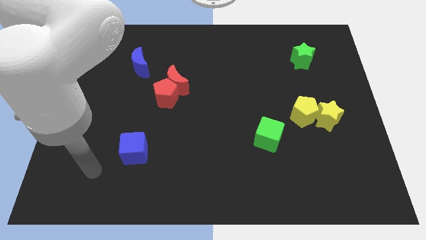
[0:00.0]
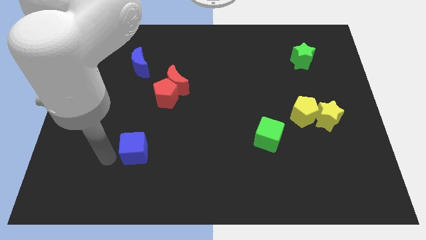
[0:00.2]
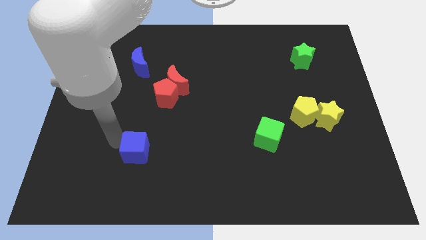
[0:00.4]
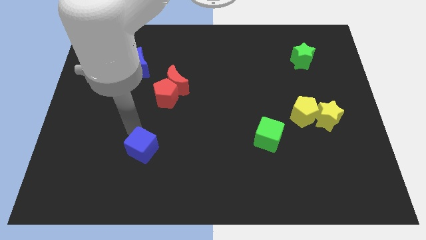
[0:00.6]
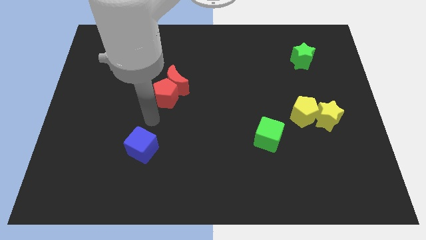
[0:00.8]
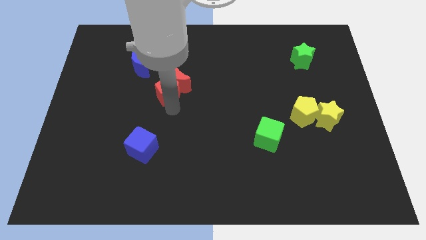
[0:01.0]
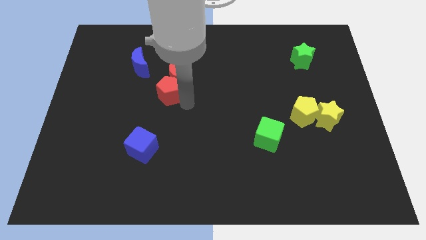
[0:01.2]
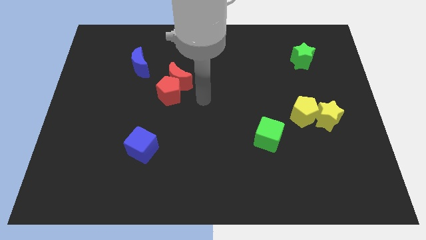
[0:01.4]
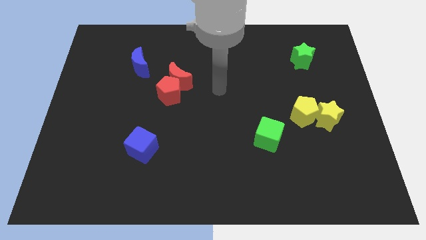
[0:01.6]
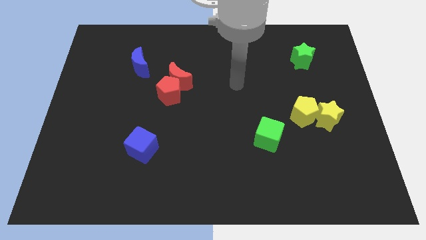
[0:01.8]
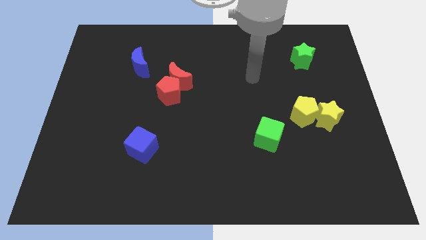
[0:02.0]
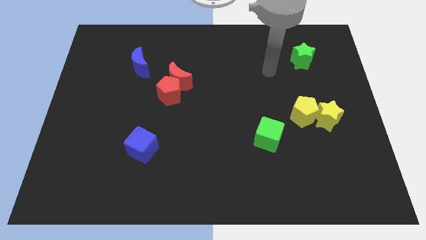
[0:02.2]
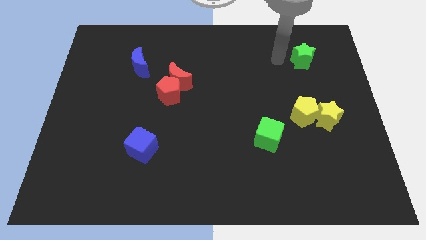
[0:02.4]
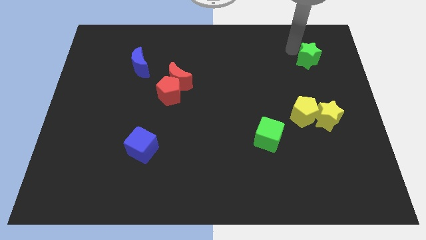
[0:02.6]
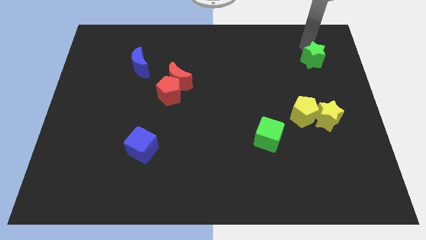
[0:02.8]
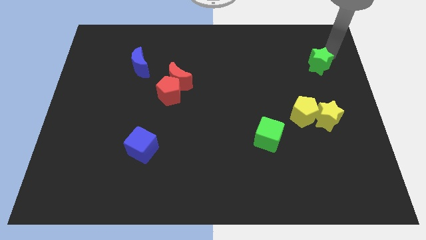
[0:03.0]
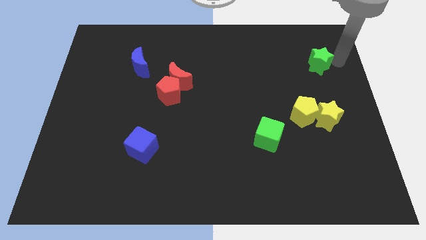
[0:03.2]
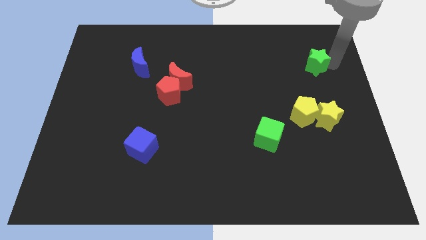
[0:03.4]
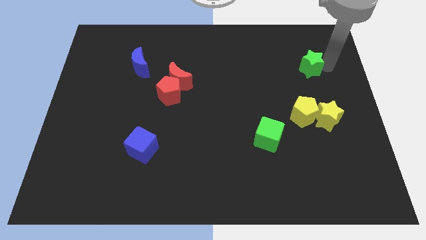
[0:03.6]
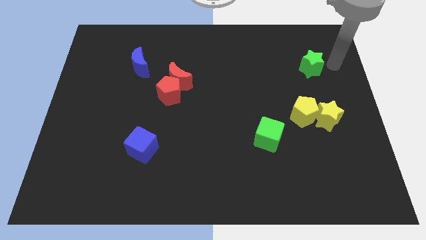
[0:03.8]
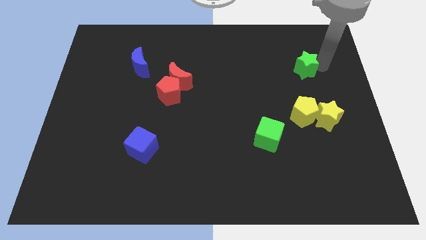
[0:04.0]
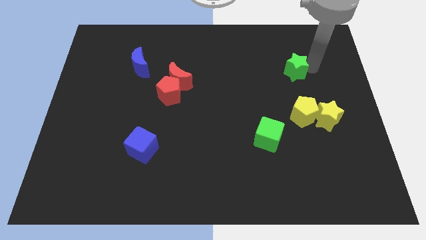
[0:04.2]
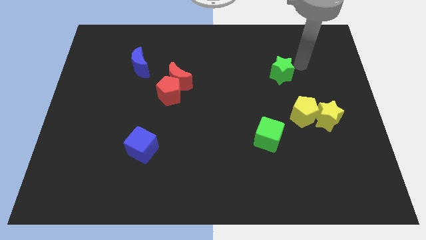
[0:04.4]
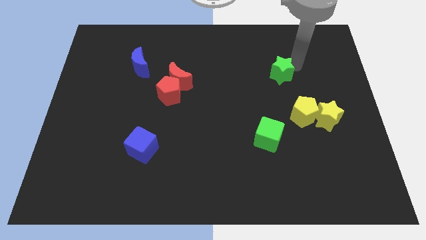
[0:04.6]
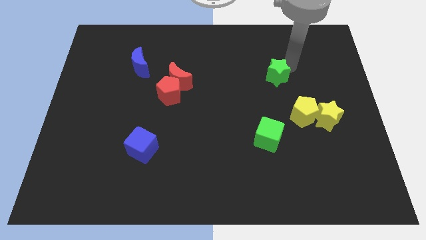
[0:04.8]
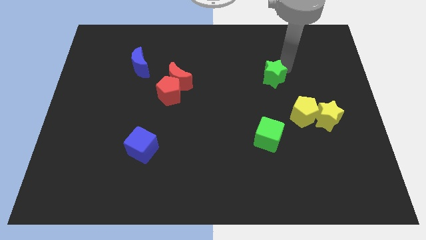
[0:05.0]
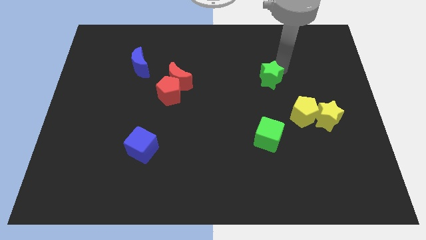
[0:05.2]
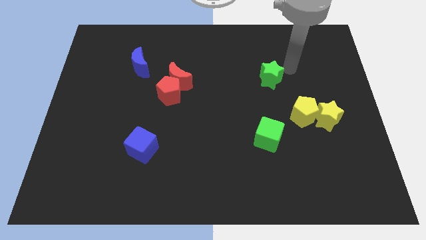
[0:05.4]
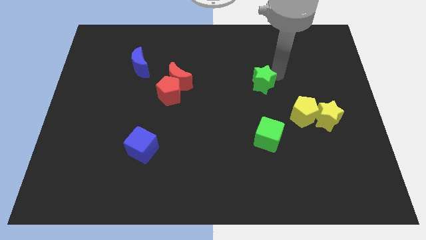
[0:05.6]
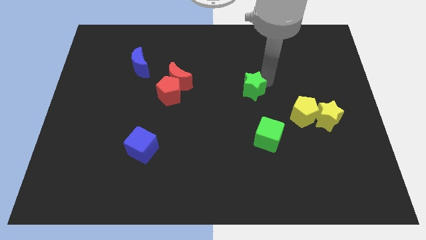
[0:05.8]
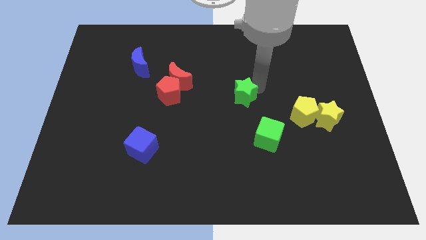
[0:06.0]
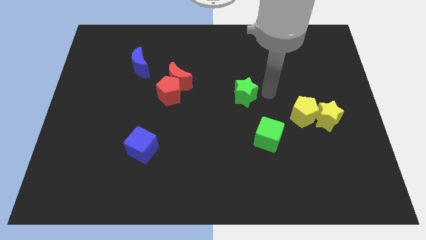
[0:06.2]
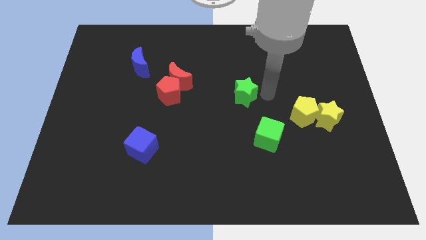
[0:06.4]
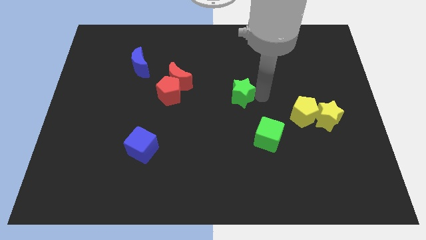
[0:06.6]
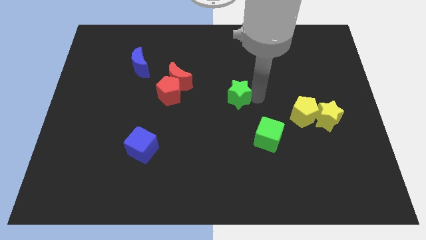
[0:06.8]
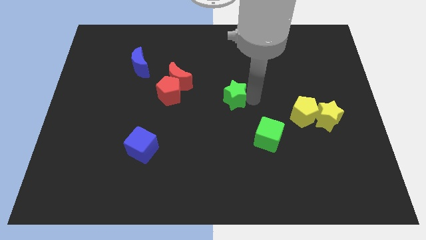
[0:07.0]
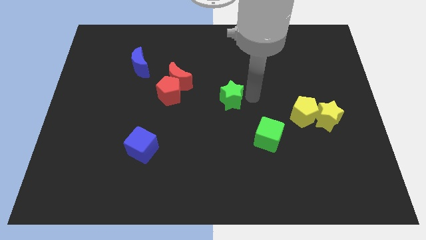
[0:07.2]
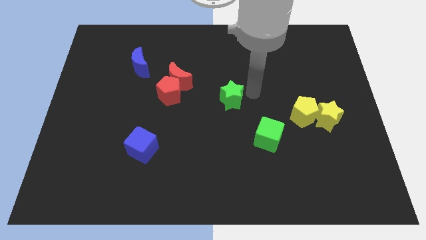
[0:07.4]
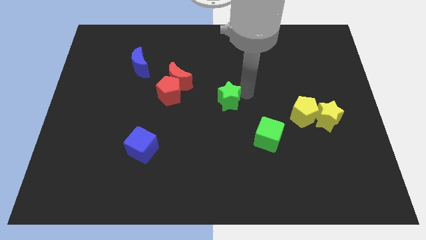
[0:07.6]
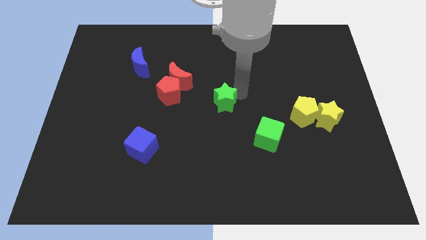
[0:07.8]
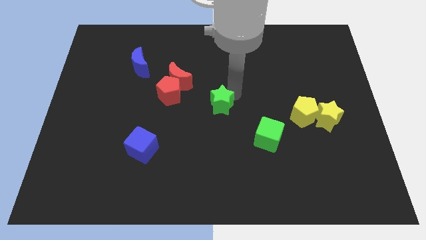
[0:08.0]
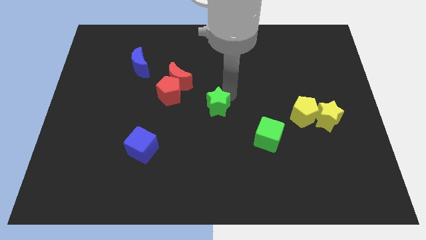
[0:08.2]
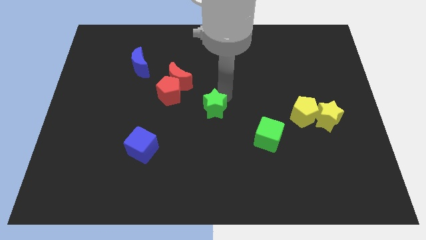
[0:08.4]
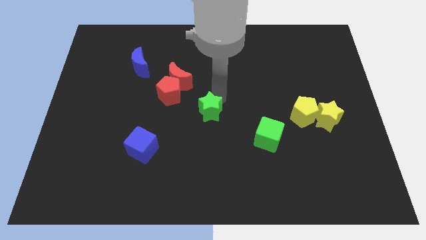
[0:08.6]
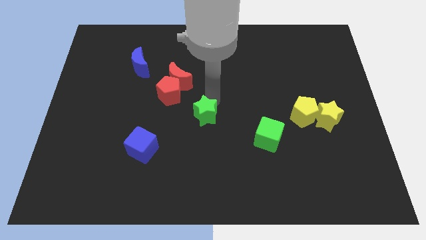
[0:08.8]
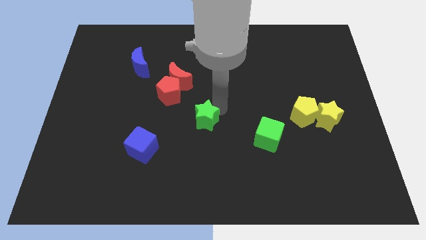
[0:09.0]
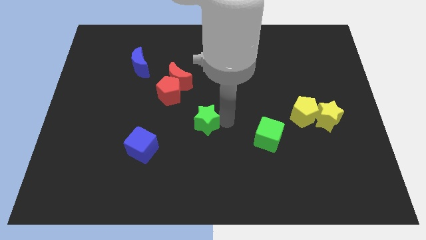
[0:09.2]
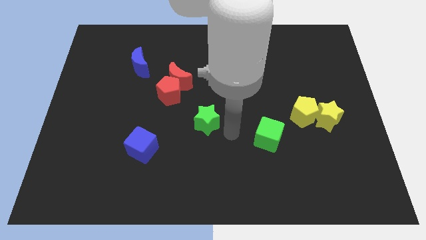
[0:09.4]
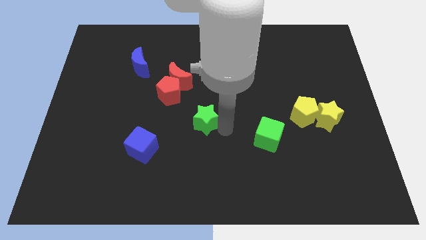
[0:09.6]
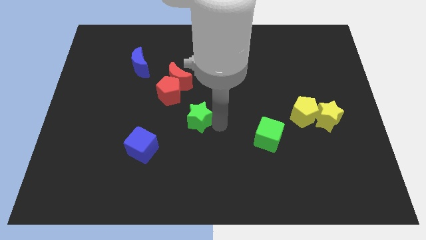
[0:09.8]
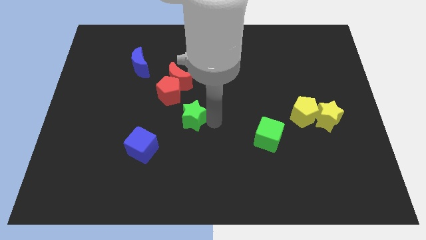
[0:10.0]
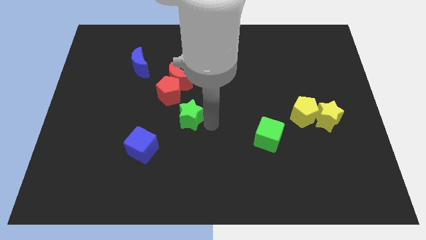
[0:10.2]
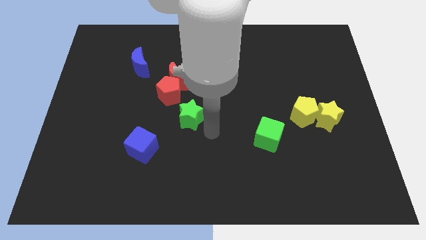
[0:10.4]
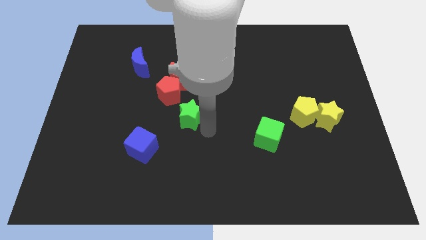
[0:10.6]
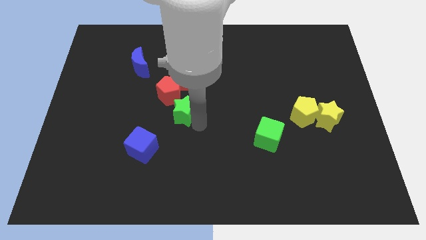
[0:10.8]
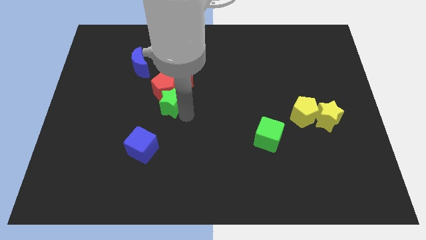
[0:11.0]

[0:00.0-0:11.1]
move the green star to the bottom left of the red moon

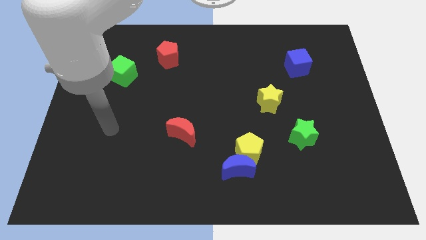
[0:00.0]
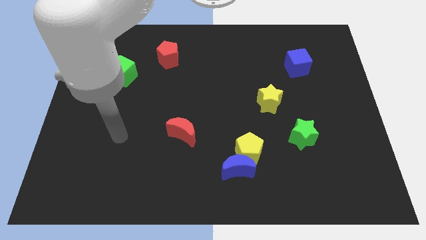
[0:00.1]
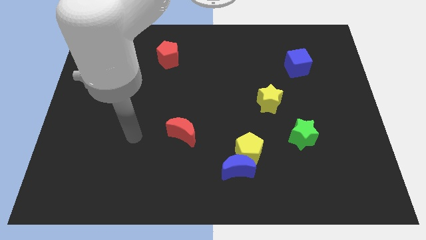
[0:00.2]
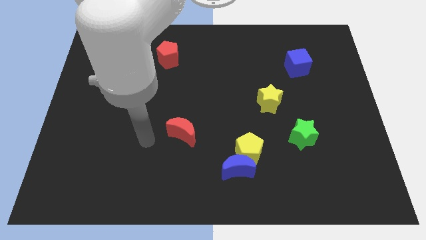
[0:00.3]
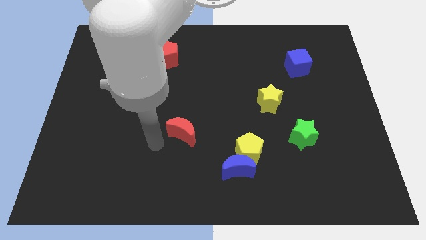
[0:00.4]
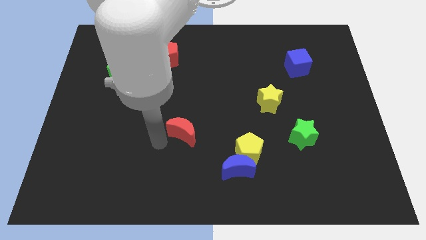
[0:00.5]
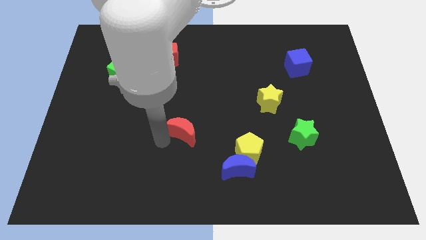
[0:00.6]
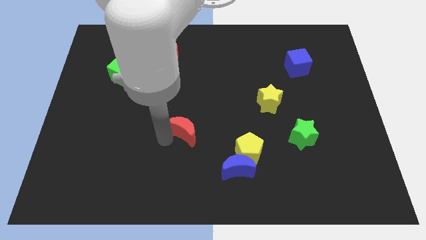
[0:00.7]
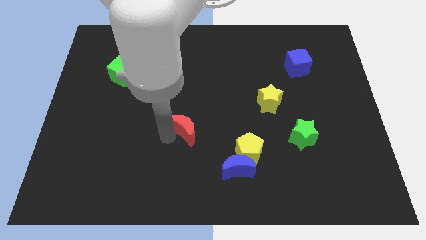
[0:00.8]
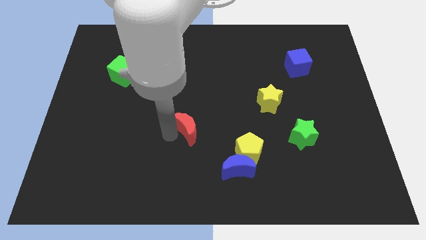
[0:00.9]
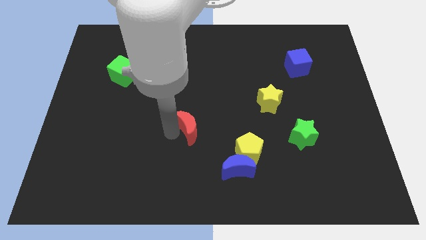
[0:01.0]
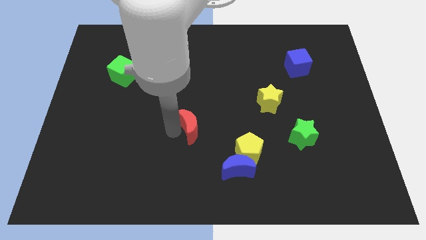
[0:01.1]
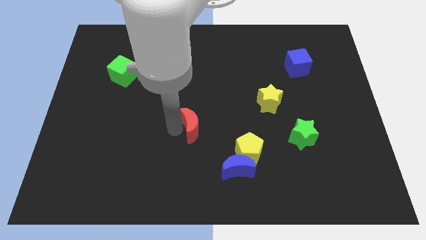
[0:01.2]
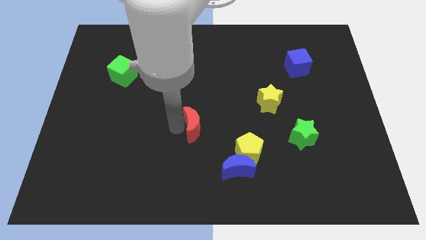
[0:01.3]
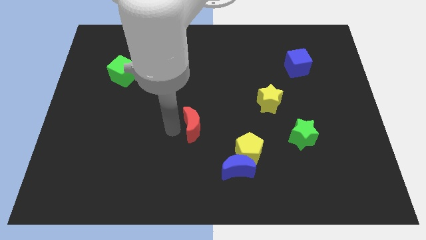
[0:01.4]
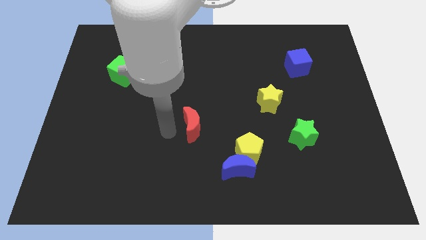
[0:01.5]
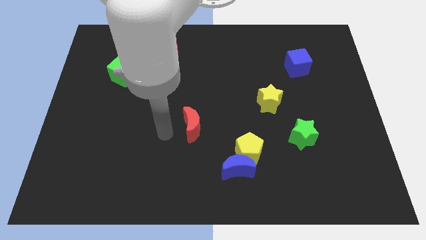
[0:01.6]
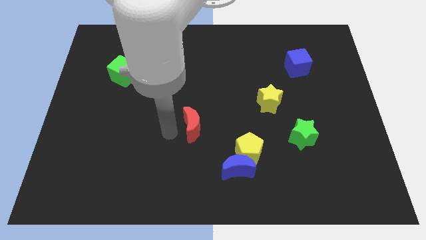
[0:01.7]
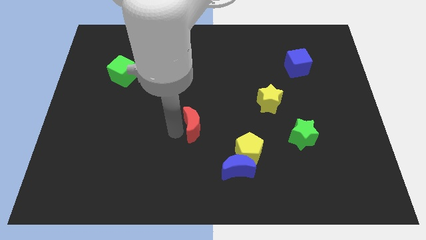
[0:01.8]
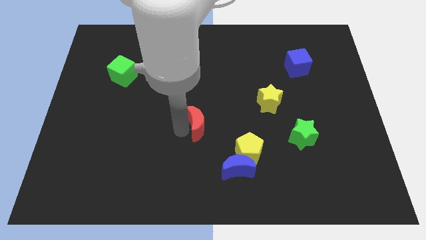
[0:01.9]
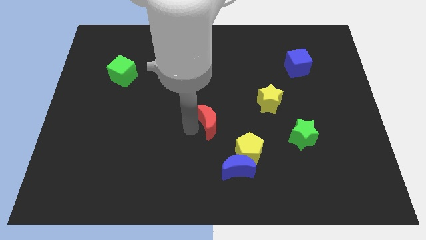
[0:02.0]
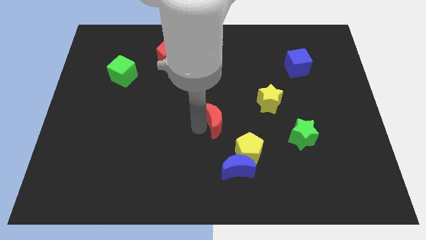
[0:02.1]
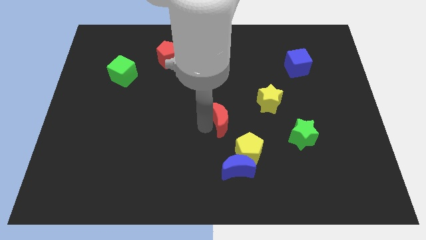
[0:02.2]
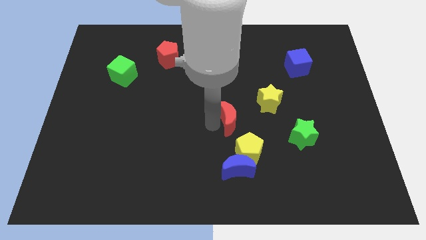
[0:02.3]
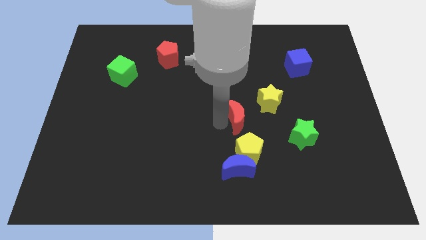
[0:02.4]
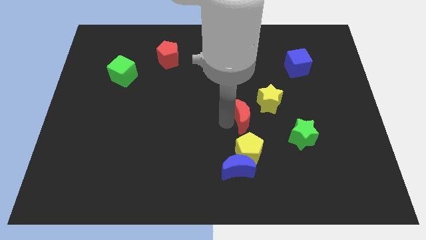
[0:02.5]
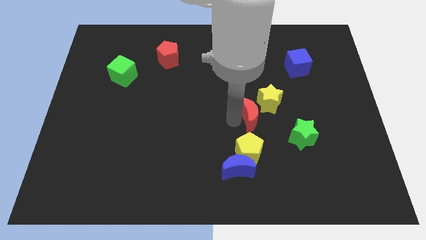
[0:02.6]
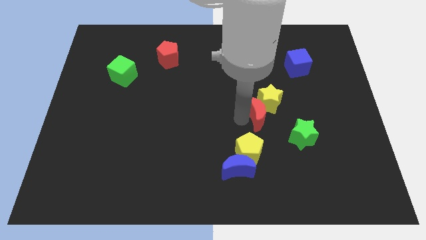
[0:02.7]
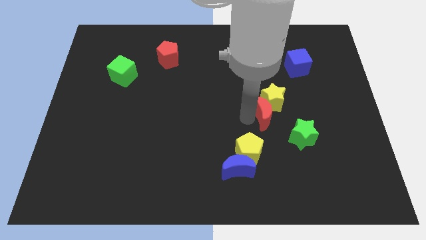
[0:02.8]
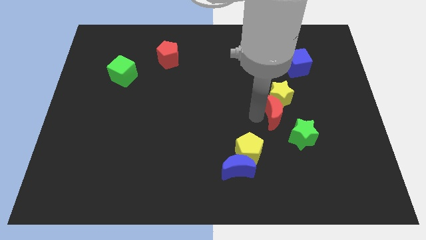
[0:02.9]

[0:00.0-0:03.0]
slide the red moon diagonally down and to the right of the yellow star
